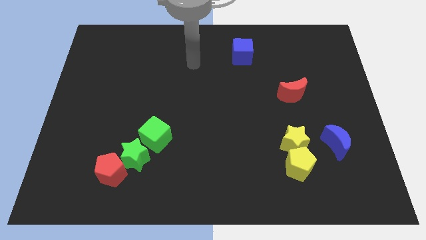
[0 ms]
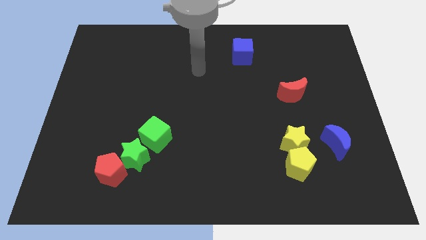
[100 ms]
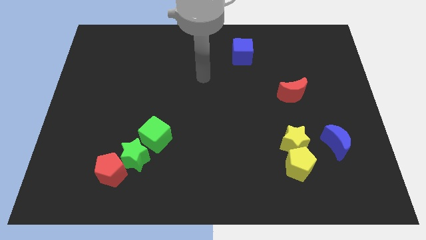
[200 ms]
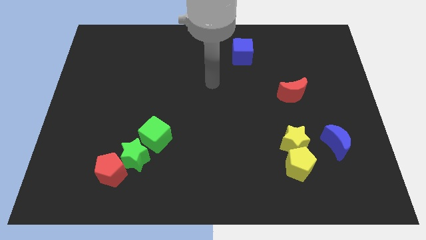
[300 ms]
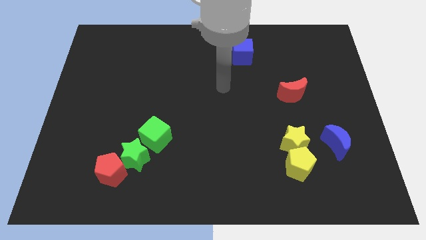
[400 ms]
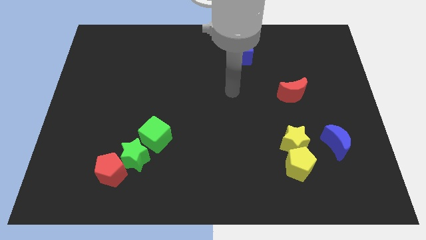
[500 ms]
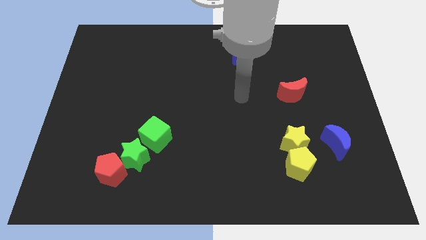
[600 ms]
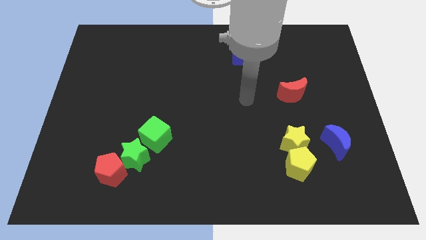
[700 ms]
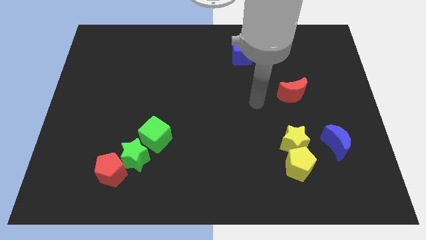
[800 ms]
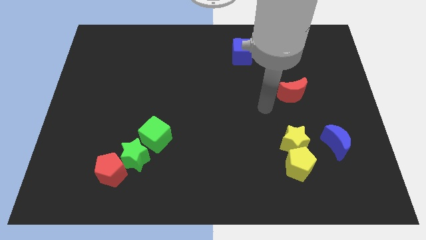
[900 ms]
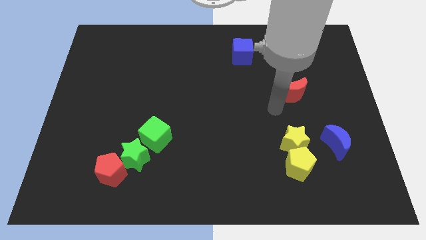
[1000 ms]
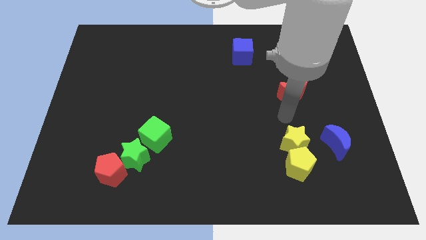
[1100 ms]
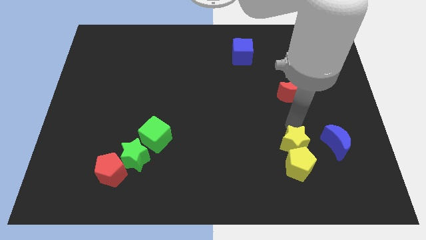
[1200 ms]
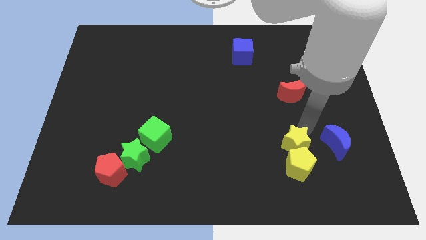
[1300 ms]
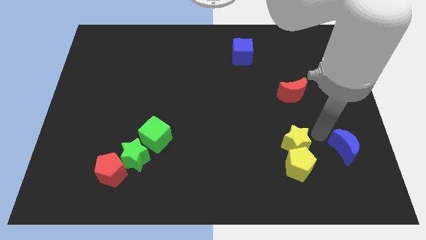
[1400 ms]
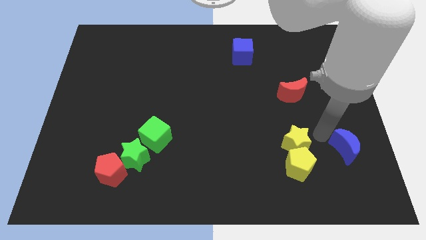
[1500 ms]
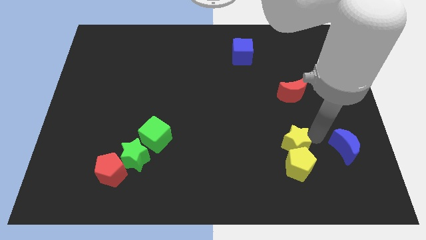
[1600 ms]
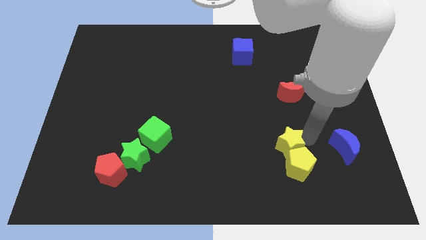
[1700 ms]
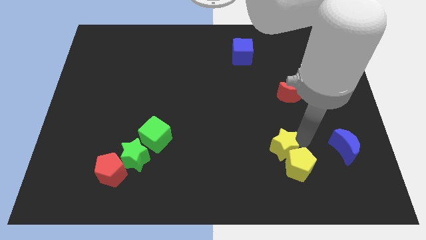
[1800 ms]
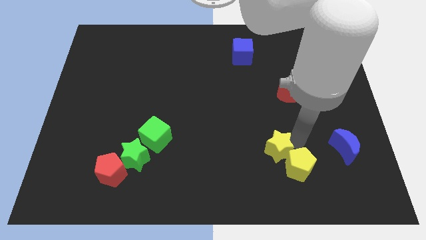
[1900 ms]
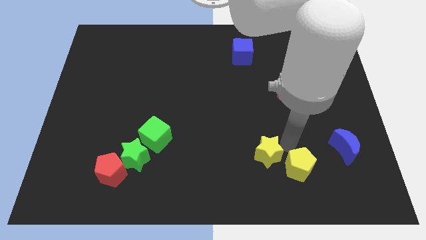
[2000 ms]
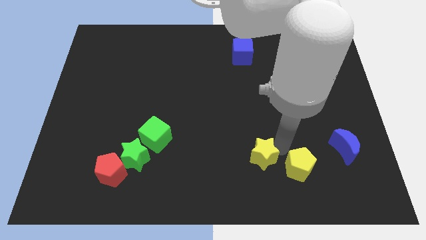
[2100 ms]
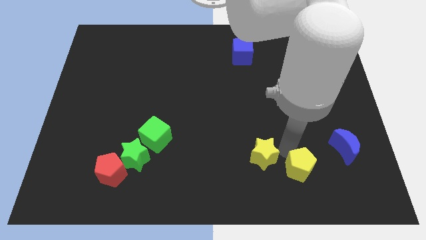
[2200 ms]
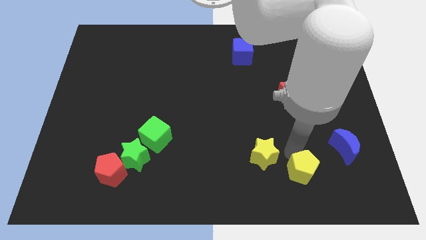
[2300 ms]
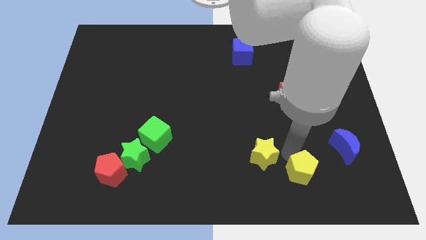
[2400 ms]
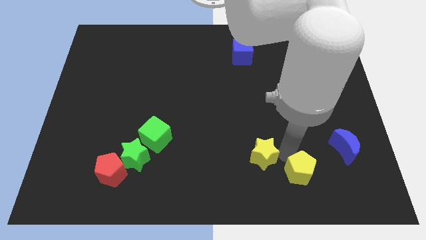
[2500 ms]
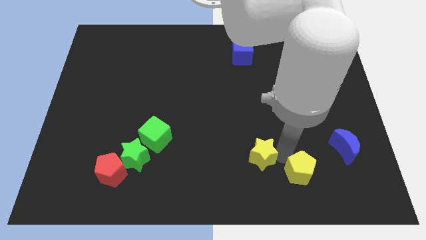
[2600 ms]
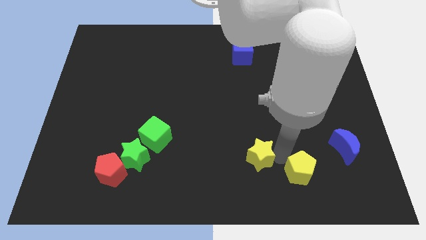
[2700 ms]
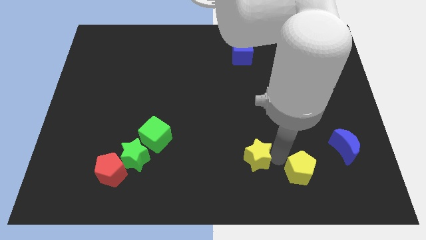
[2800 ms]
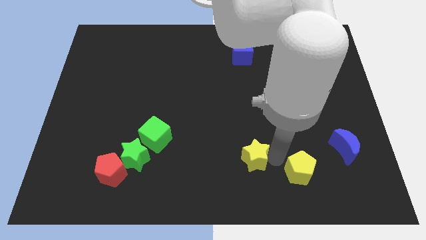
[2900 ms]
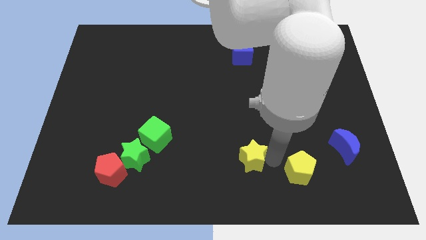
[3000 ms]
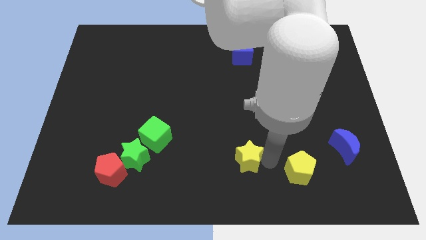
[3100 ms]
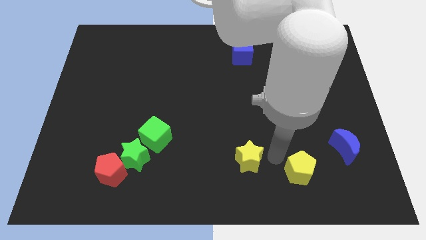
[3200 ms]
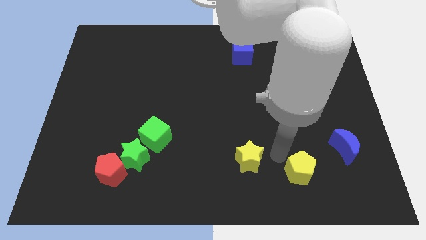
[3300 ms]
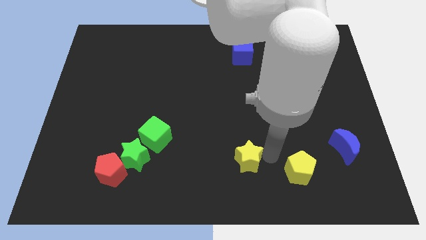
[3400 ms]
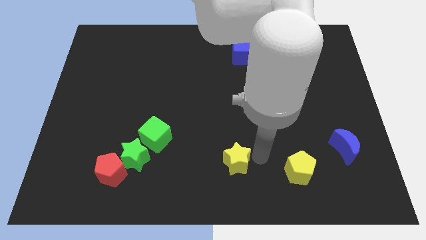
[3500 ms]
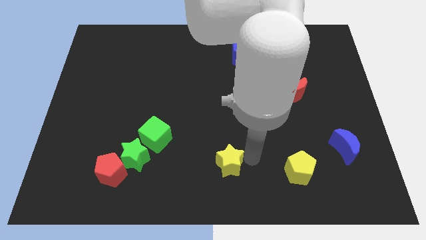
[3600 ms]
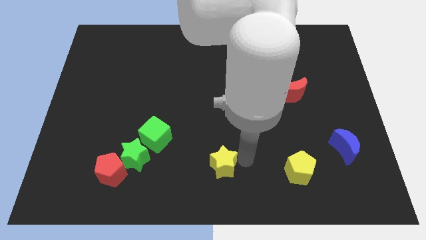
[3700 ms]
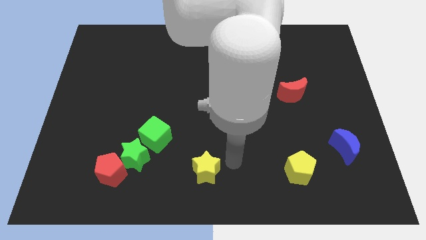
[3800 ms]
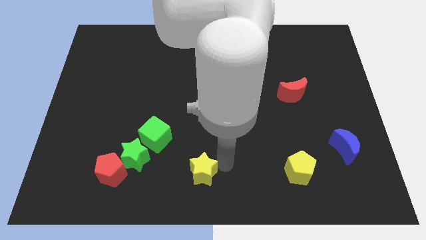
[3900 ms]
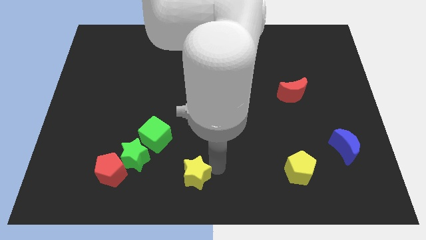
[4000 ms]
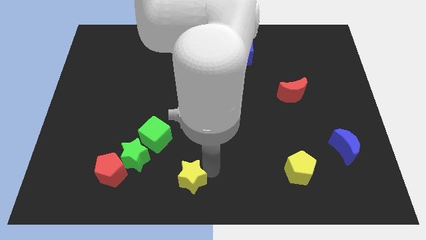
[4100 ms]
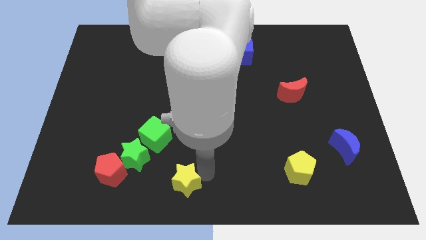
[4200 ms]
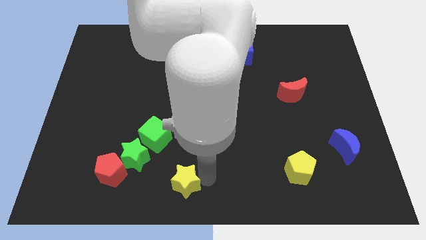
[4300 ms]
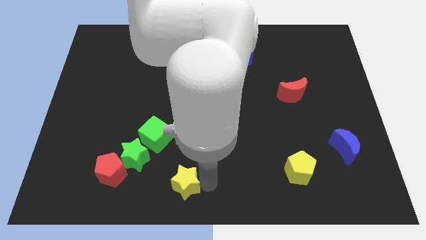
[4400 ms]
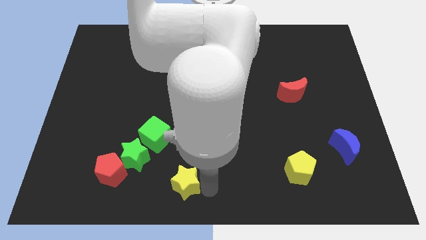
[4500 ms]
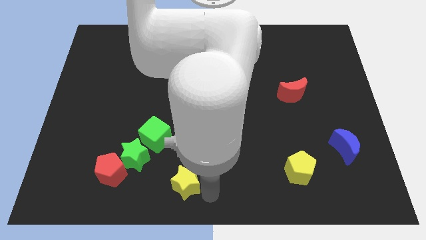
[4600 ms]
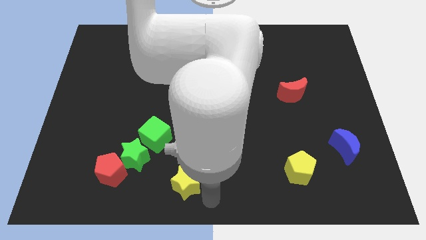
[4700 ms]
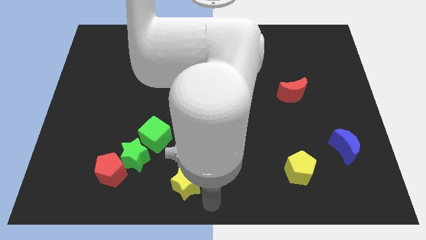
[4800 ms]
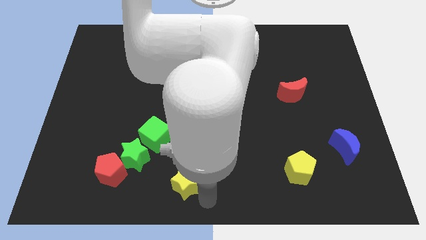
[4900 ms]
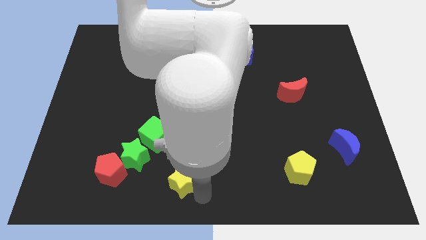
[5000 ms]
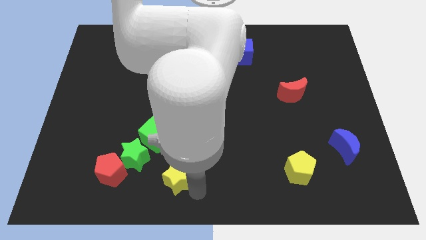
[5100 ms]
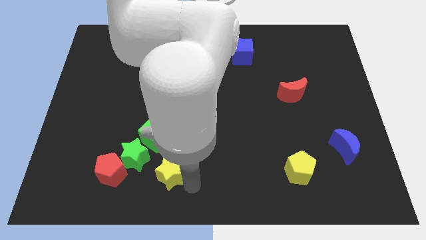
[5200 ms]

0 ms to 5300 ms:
put the yellow star to the bottom of the green cube
